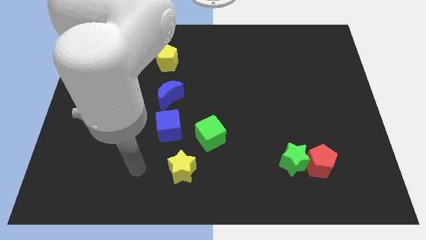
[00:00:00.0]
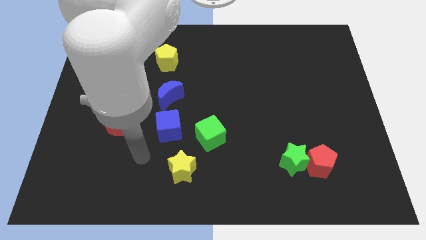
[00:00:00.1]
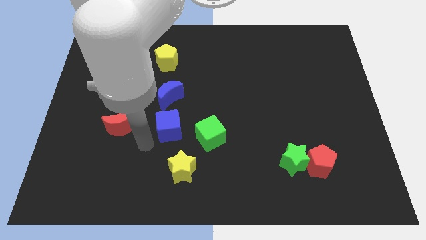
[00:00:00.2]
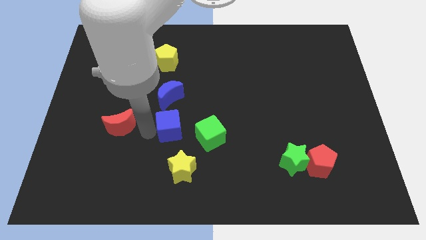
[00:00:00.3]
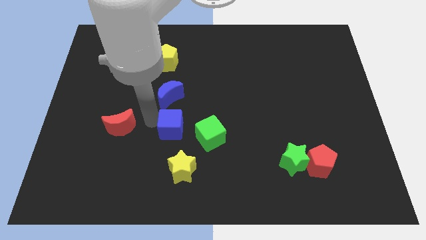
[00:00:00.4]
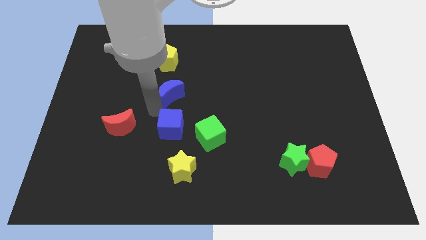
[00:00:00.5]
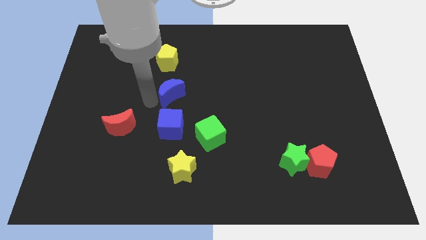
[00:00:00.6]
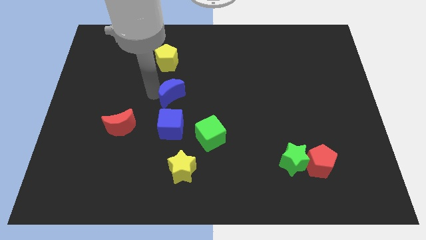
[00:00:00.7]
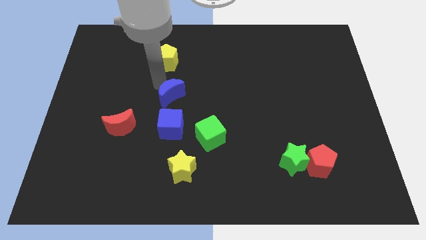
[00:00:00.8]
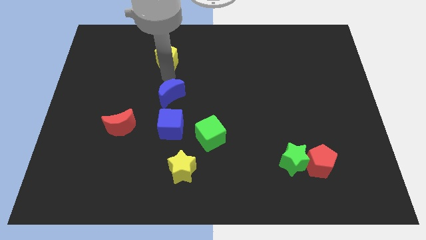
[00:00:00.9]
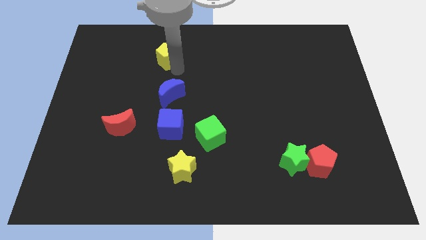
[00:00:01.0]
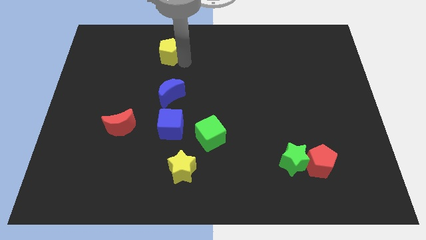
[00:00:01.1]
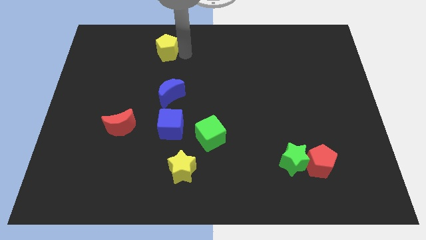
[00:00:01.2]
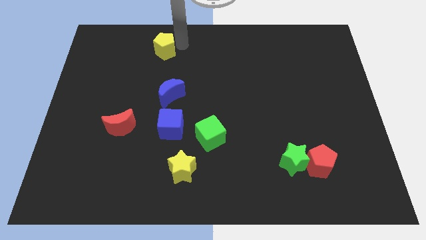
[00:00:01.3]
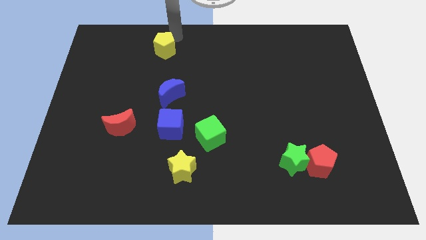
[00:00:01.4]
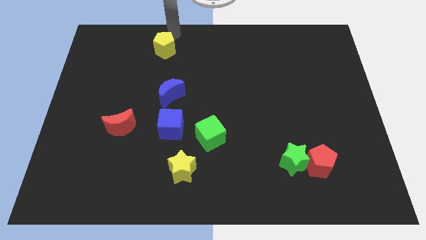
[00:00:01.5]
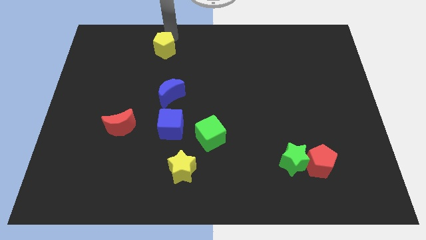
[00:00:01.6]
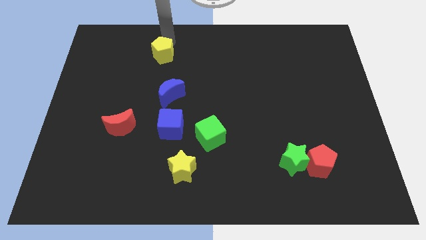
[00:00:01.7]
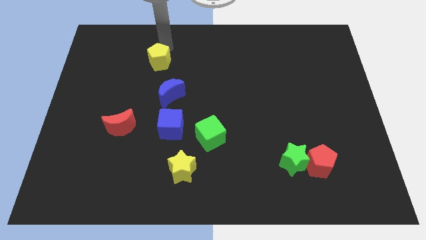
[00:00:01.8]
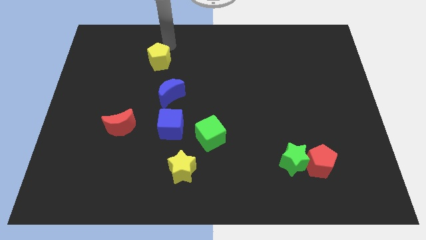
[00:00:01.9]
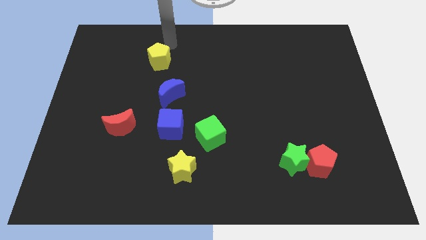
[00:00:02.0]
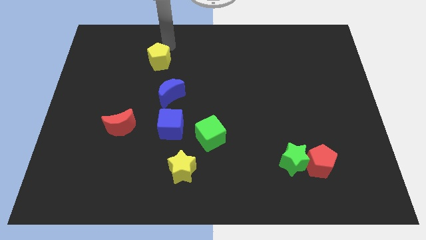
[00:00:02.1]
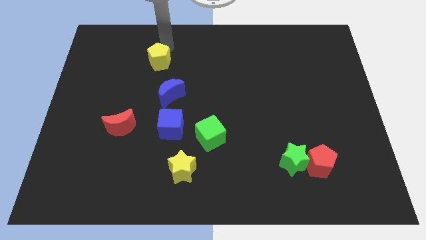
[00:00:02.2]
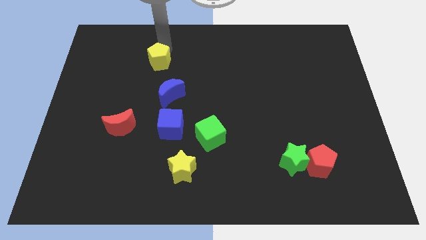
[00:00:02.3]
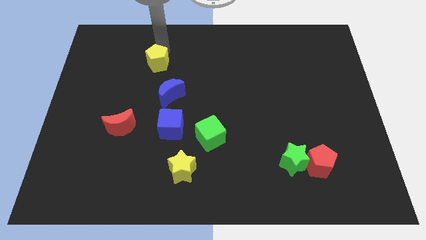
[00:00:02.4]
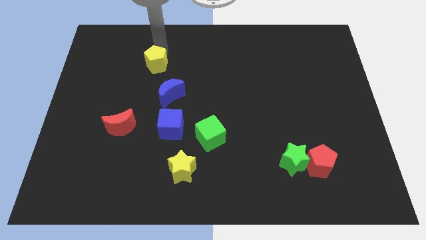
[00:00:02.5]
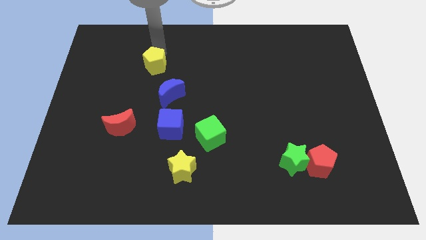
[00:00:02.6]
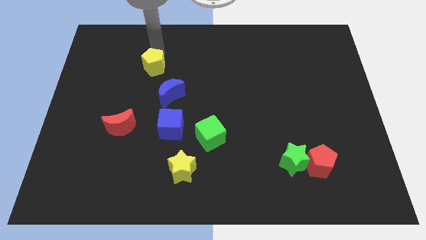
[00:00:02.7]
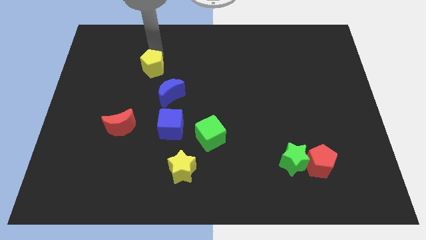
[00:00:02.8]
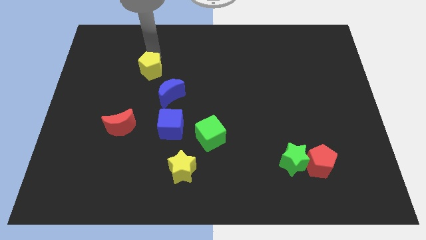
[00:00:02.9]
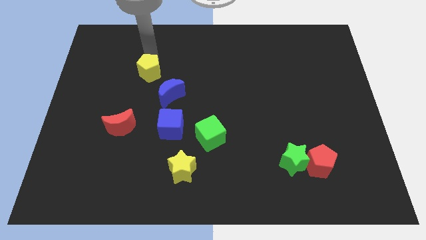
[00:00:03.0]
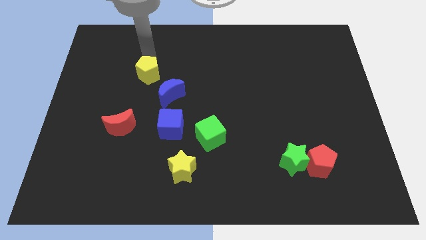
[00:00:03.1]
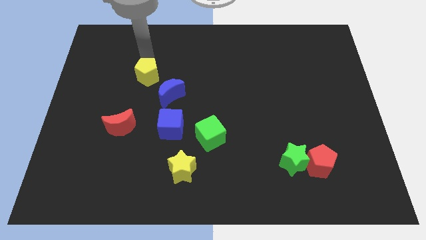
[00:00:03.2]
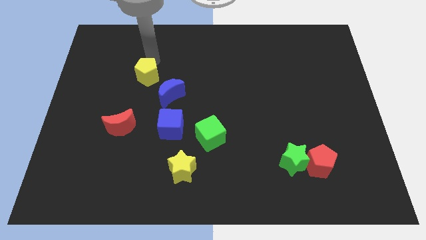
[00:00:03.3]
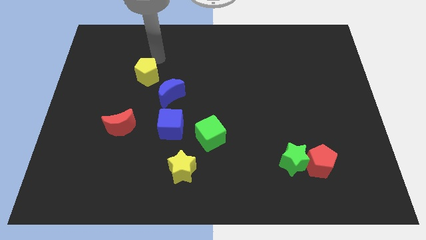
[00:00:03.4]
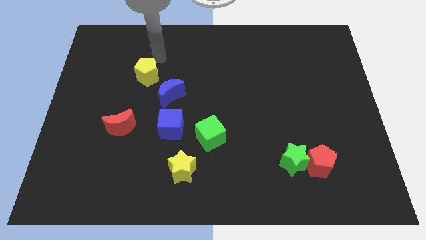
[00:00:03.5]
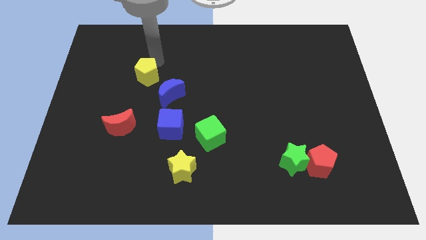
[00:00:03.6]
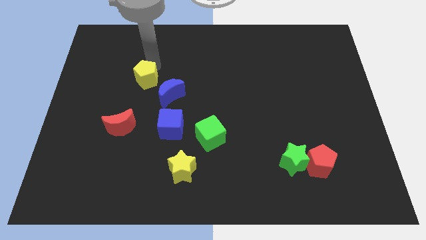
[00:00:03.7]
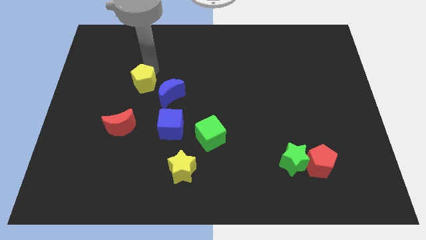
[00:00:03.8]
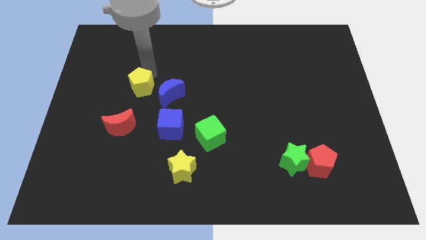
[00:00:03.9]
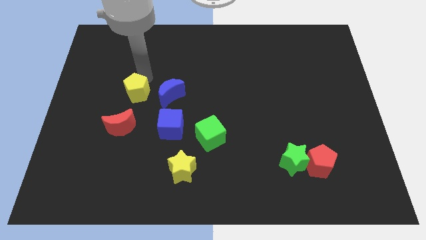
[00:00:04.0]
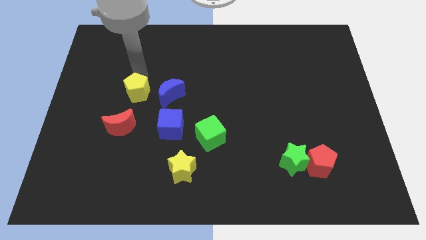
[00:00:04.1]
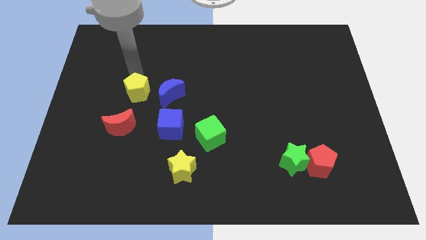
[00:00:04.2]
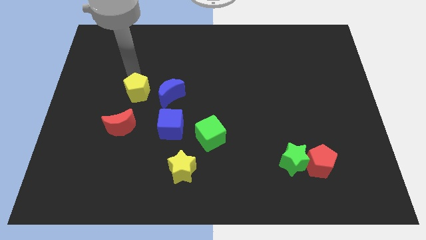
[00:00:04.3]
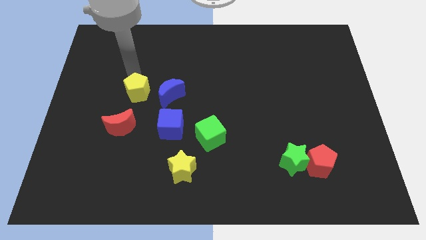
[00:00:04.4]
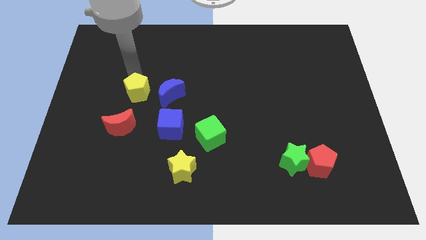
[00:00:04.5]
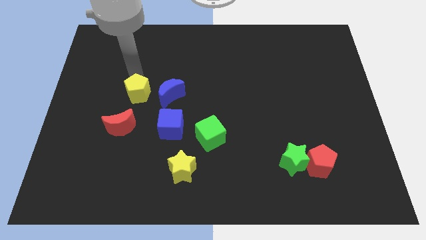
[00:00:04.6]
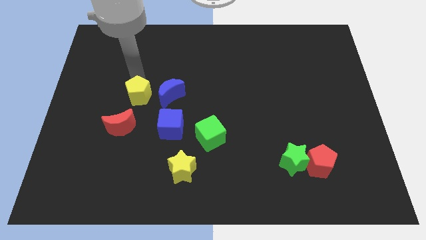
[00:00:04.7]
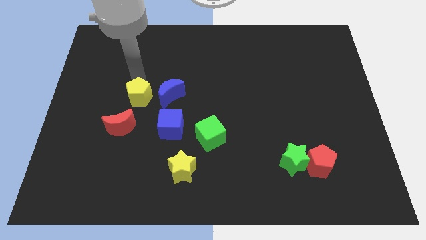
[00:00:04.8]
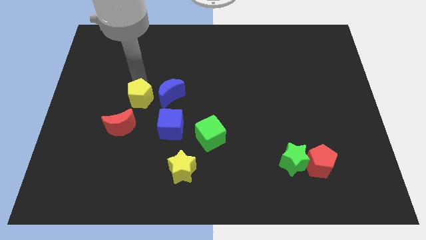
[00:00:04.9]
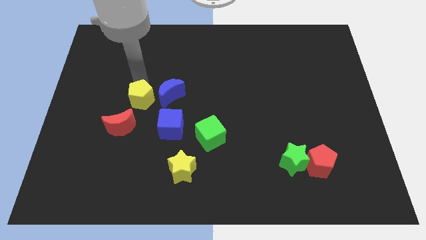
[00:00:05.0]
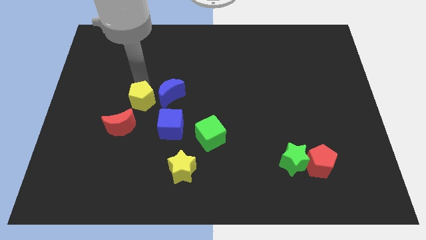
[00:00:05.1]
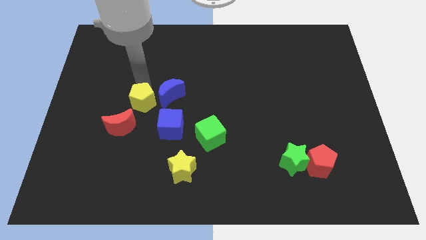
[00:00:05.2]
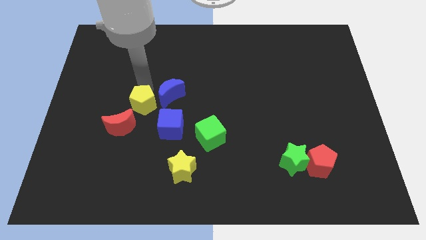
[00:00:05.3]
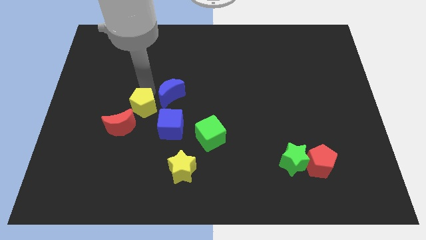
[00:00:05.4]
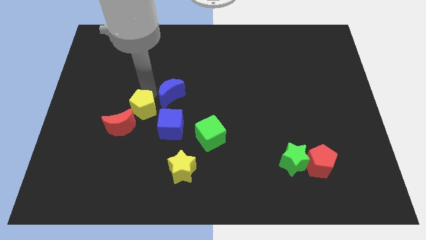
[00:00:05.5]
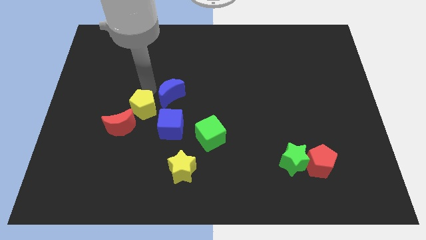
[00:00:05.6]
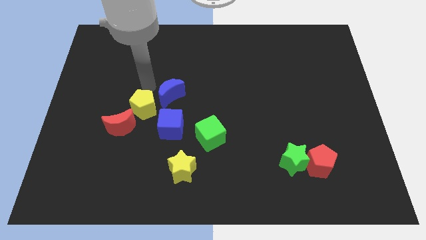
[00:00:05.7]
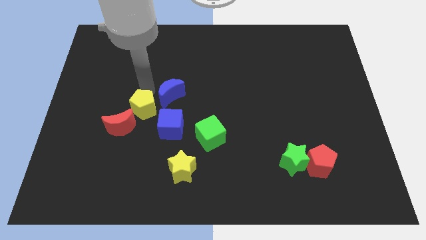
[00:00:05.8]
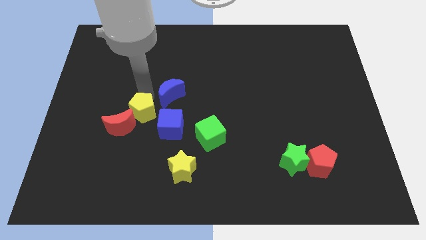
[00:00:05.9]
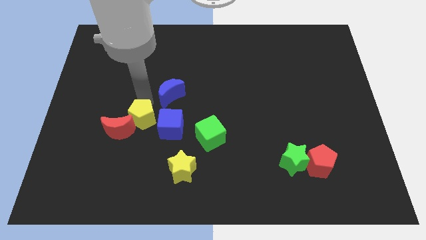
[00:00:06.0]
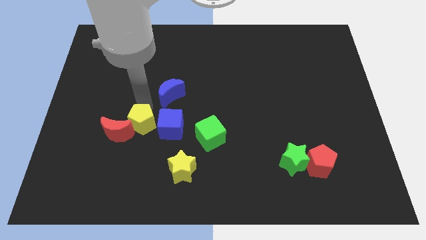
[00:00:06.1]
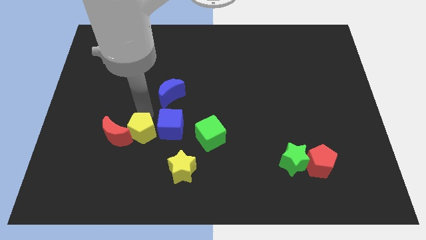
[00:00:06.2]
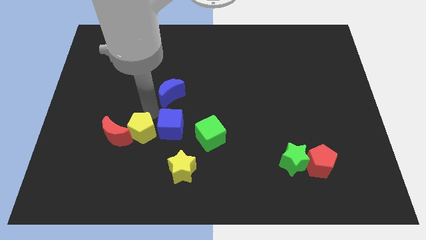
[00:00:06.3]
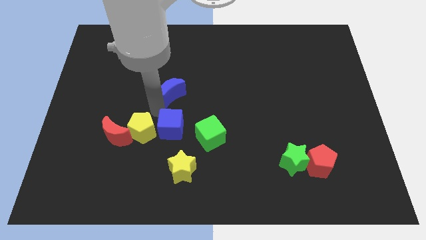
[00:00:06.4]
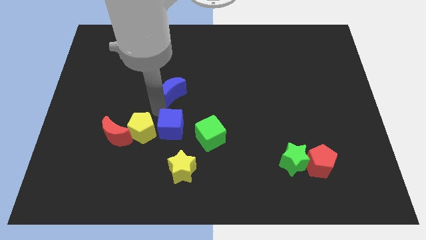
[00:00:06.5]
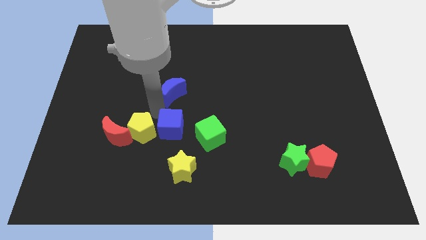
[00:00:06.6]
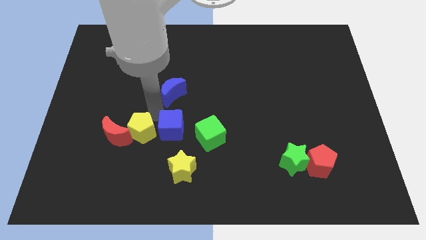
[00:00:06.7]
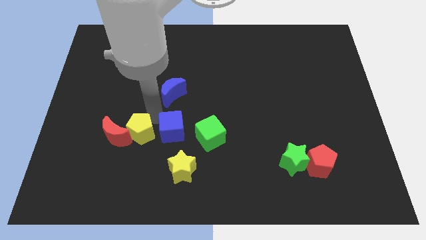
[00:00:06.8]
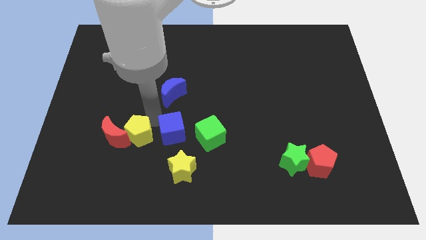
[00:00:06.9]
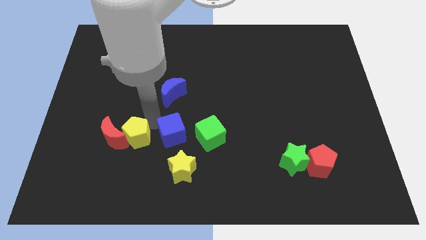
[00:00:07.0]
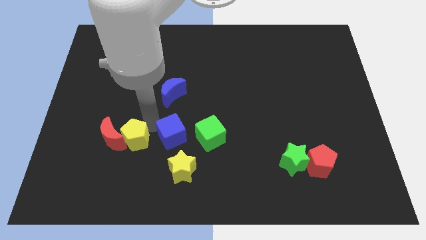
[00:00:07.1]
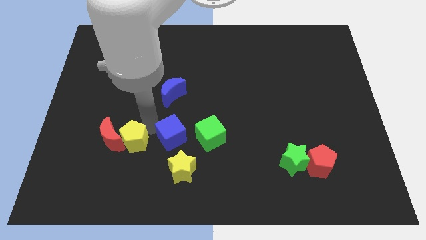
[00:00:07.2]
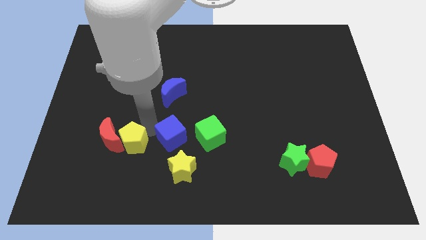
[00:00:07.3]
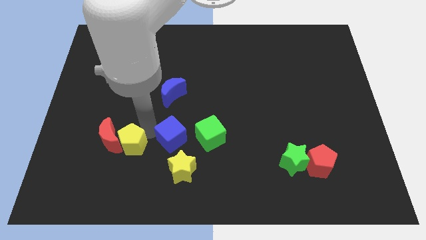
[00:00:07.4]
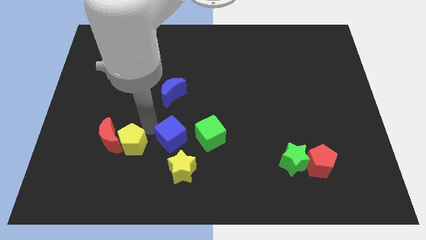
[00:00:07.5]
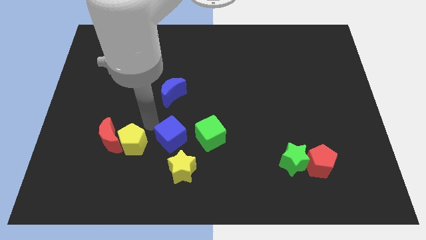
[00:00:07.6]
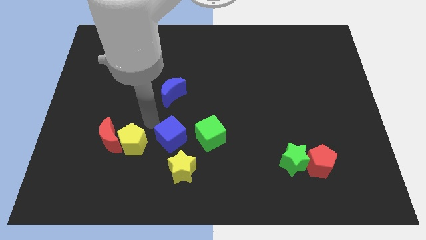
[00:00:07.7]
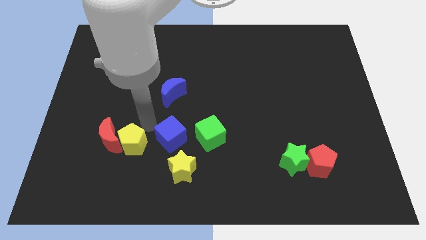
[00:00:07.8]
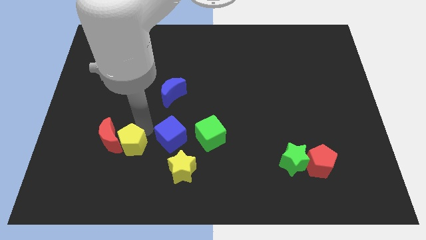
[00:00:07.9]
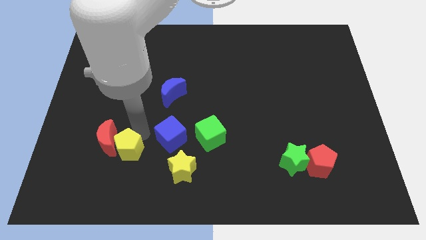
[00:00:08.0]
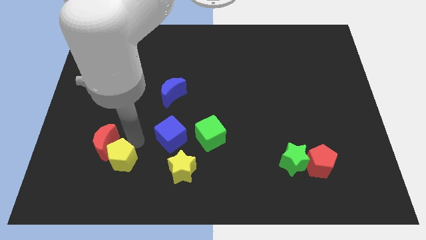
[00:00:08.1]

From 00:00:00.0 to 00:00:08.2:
move the yellow pentagon to the bottom of the red moon
